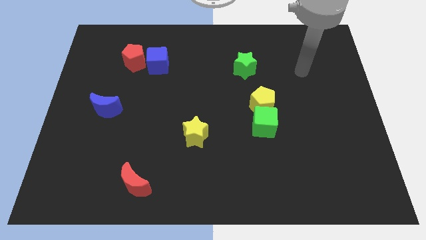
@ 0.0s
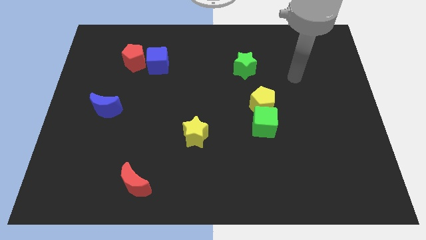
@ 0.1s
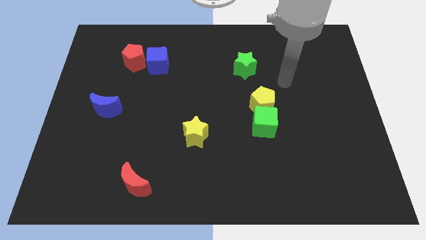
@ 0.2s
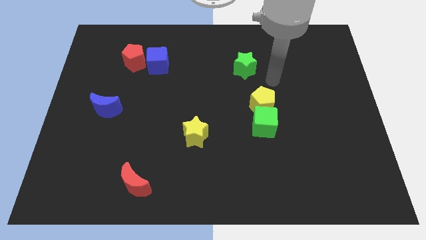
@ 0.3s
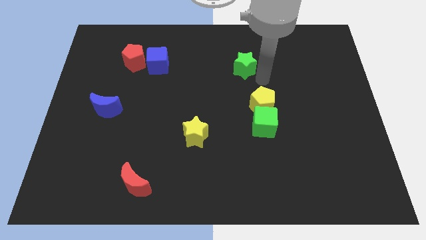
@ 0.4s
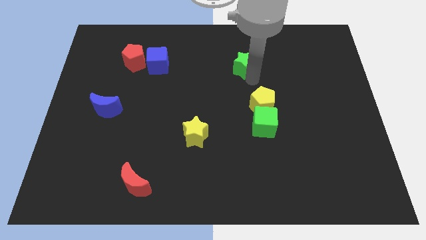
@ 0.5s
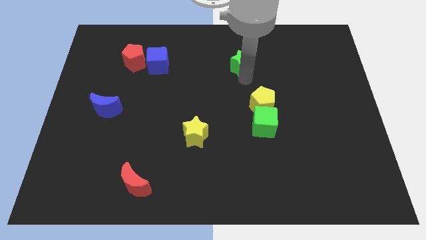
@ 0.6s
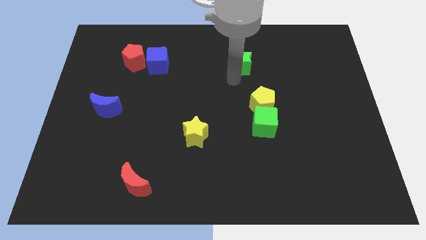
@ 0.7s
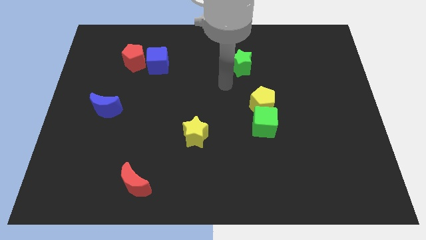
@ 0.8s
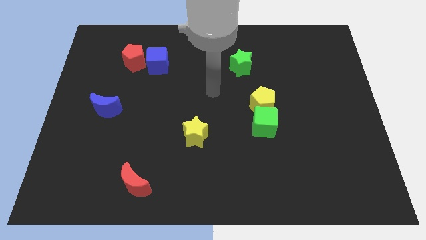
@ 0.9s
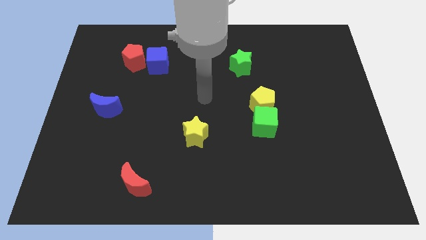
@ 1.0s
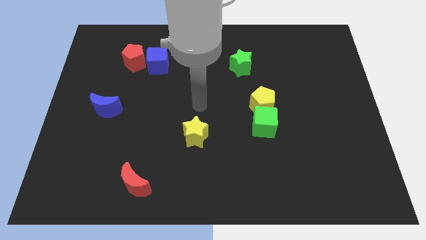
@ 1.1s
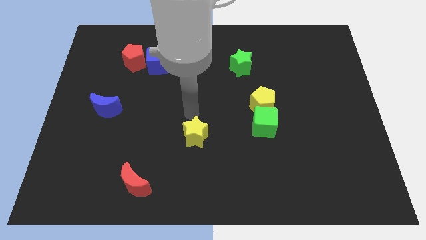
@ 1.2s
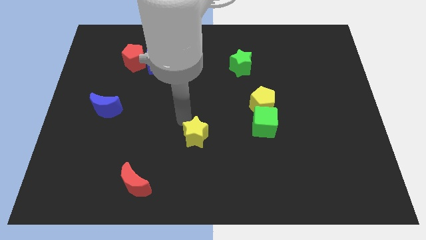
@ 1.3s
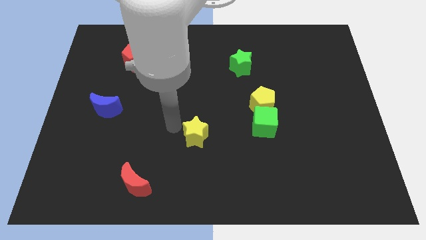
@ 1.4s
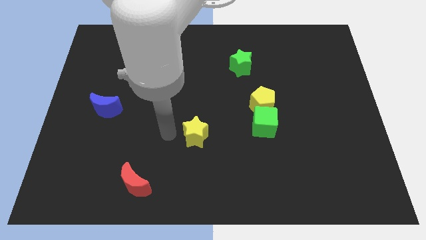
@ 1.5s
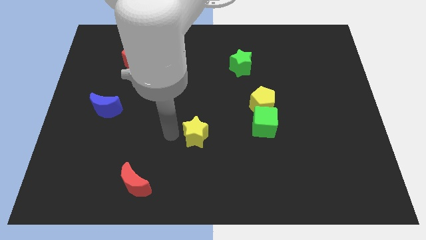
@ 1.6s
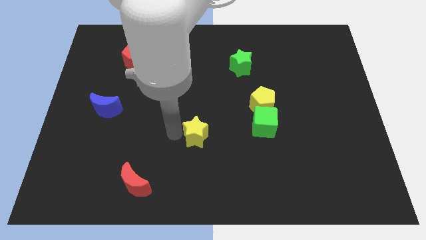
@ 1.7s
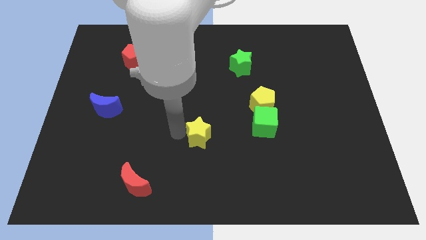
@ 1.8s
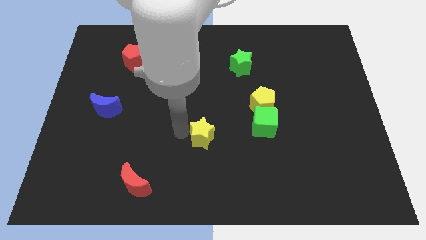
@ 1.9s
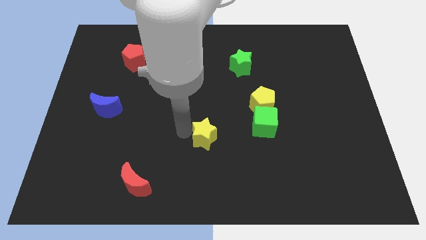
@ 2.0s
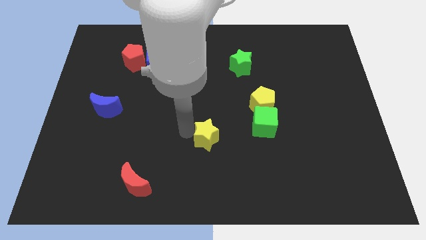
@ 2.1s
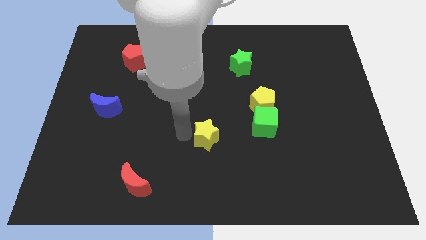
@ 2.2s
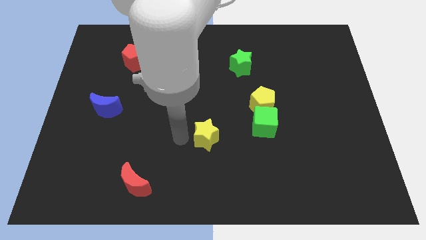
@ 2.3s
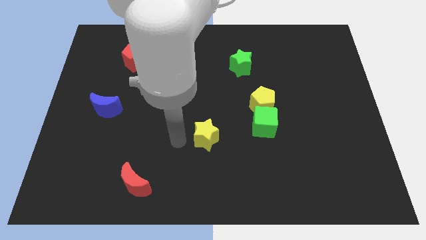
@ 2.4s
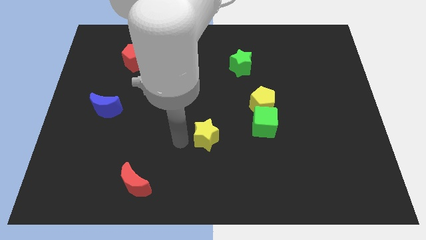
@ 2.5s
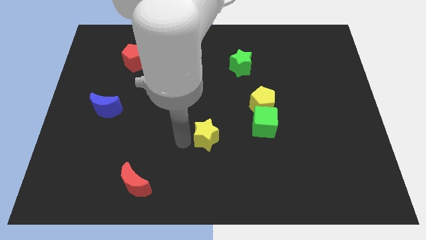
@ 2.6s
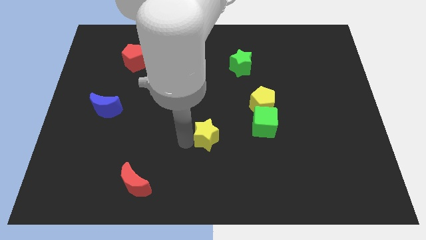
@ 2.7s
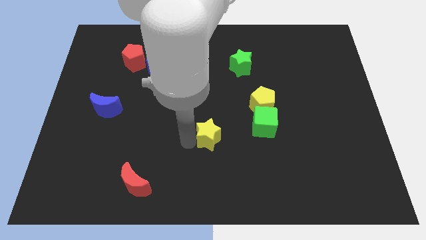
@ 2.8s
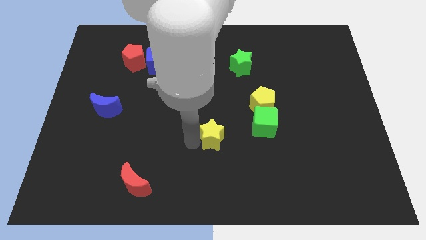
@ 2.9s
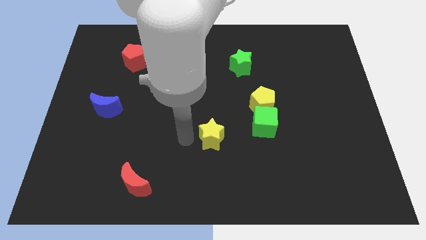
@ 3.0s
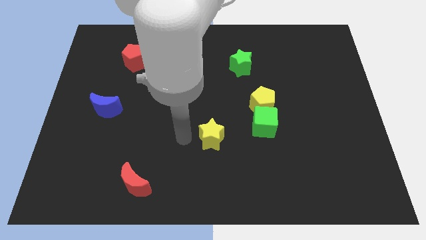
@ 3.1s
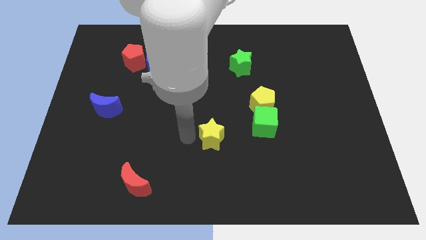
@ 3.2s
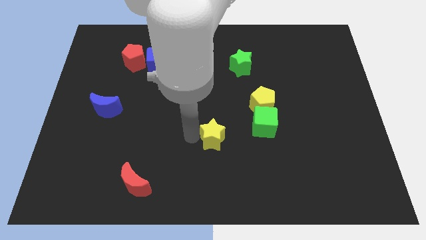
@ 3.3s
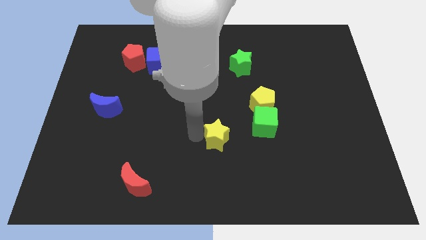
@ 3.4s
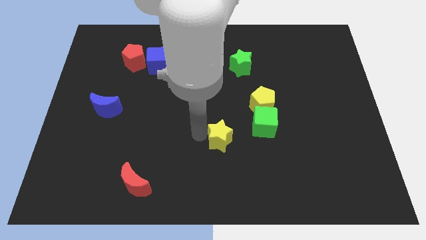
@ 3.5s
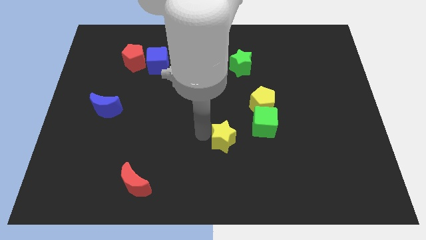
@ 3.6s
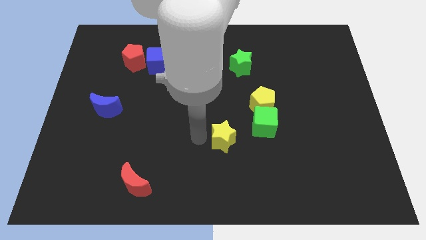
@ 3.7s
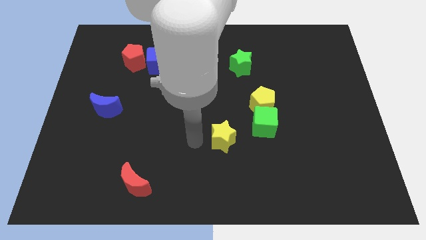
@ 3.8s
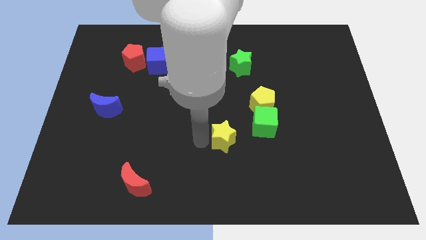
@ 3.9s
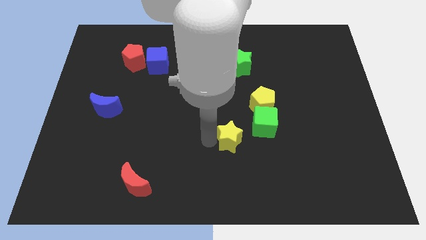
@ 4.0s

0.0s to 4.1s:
move the yellow star right slightly

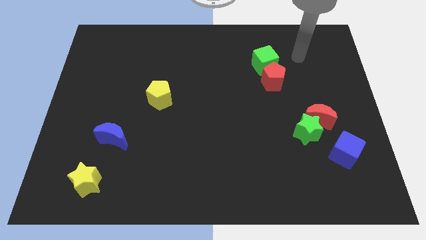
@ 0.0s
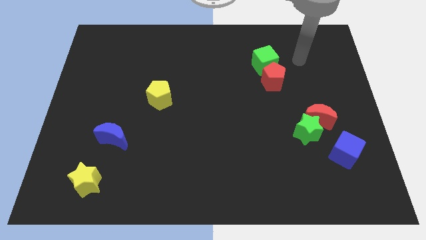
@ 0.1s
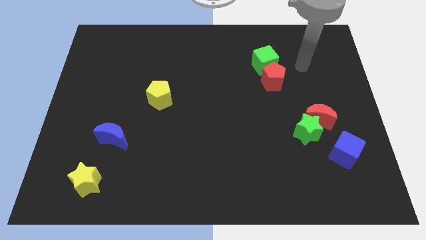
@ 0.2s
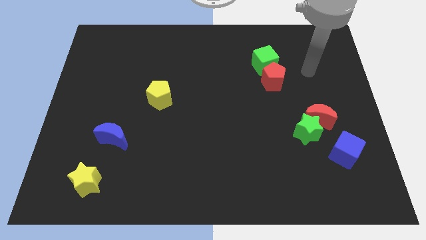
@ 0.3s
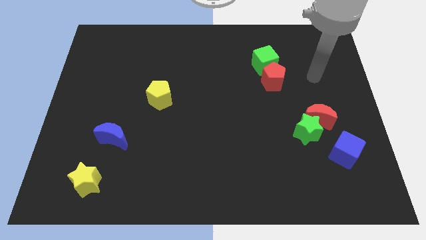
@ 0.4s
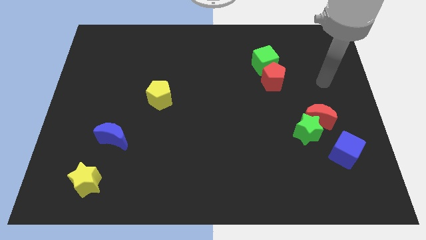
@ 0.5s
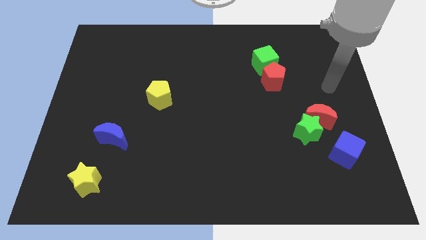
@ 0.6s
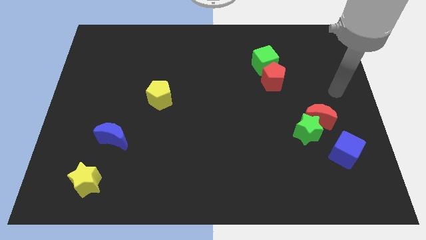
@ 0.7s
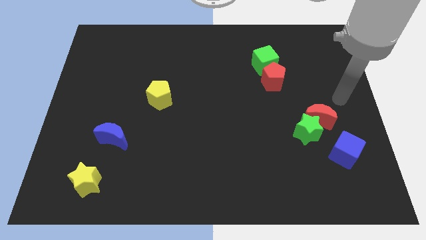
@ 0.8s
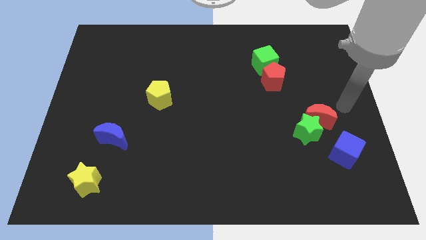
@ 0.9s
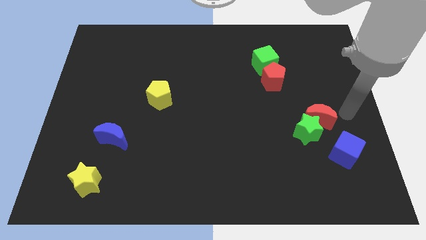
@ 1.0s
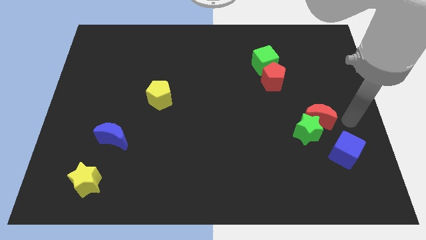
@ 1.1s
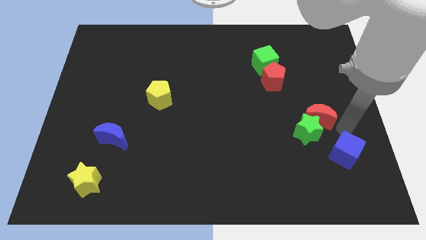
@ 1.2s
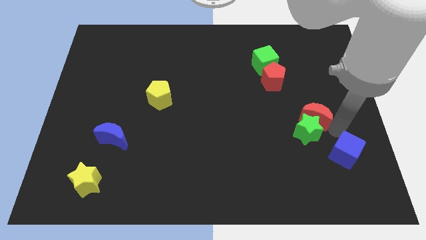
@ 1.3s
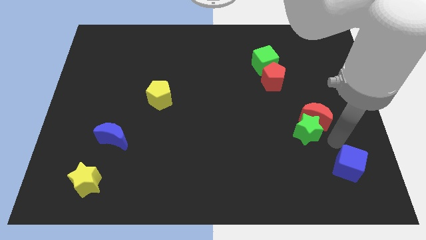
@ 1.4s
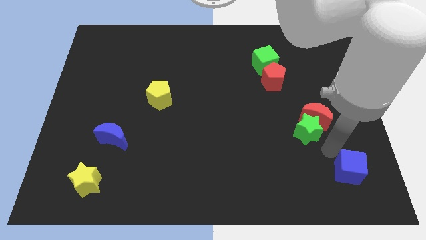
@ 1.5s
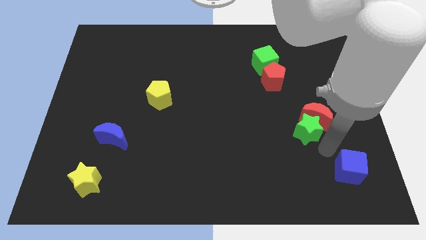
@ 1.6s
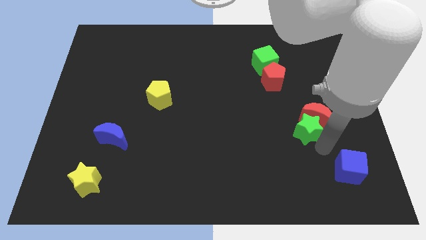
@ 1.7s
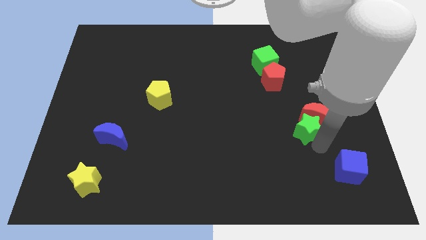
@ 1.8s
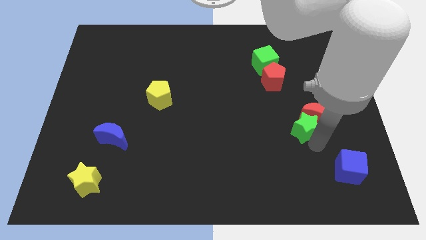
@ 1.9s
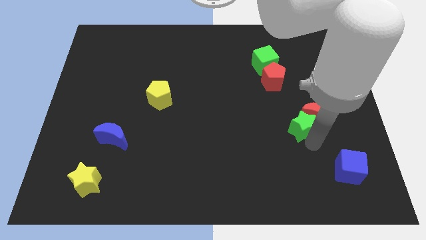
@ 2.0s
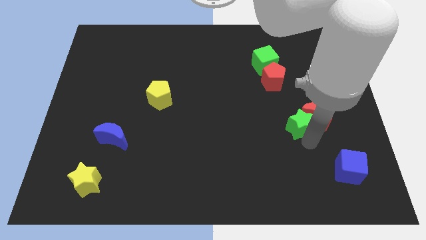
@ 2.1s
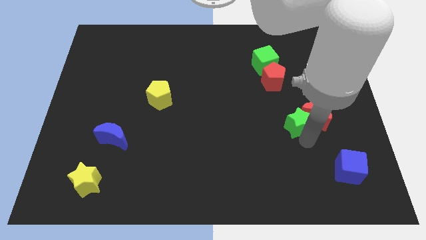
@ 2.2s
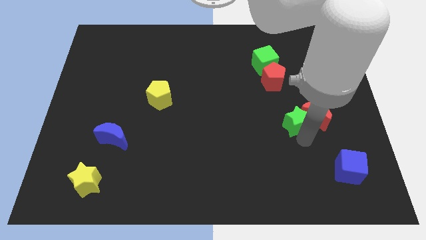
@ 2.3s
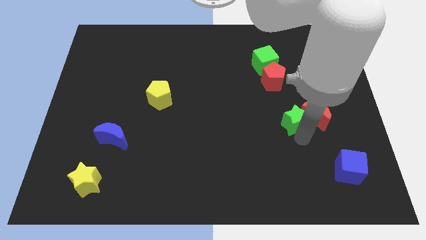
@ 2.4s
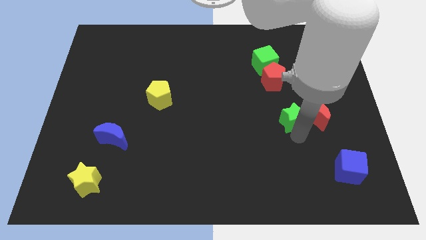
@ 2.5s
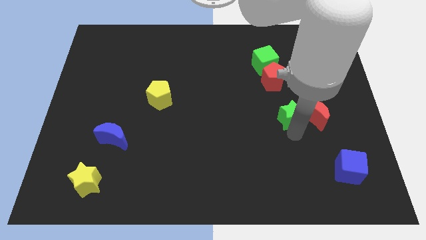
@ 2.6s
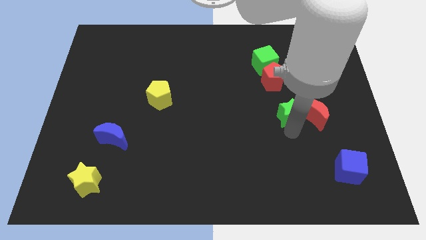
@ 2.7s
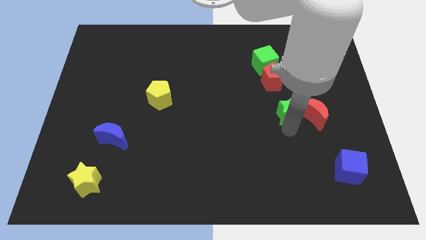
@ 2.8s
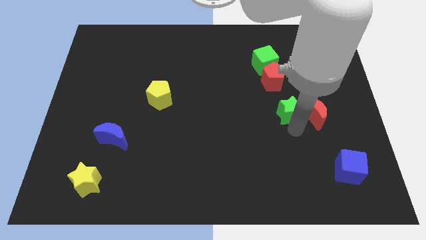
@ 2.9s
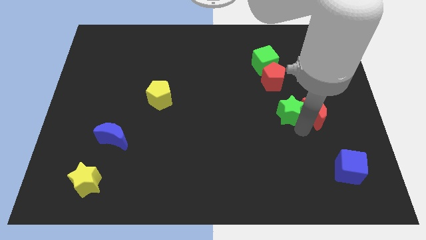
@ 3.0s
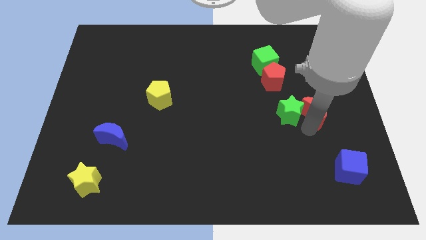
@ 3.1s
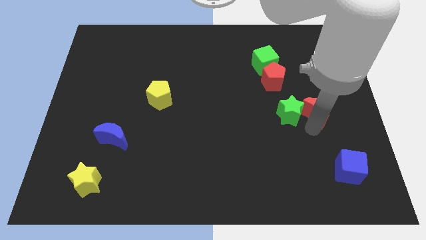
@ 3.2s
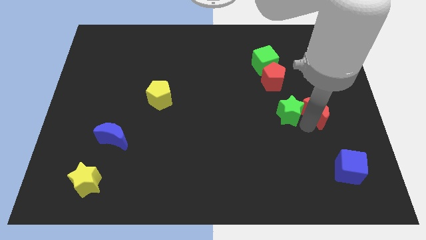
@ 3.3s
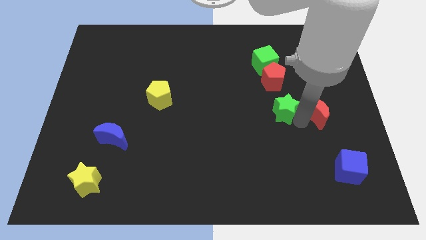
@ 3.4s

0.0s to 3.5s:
slightly slide the green star upwards and to the left

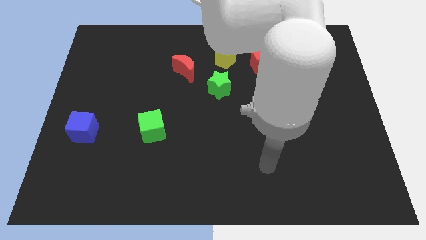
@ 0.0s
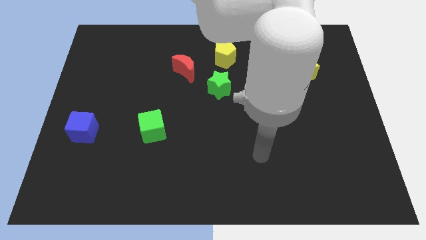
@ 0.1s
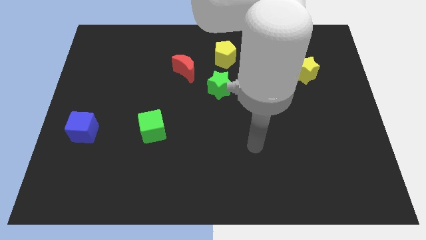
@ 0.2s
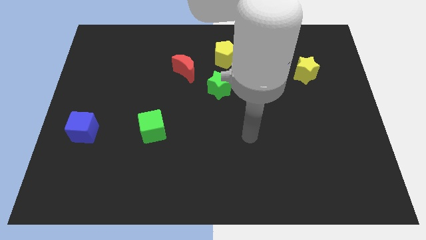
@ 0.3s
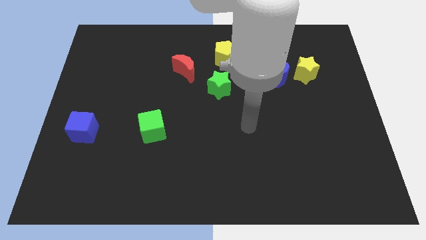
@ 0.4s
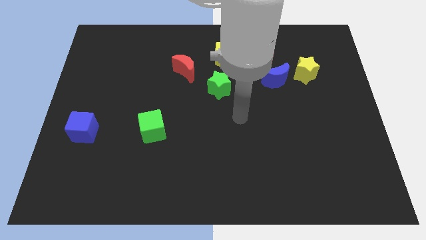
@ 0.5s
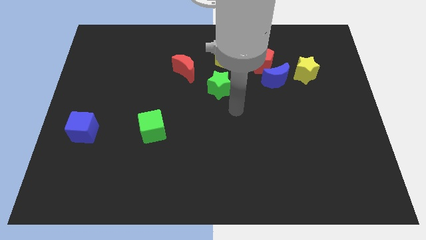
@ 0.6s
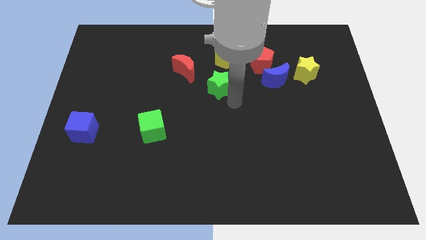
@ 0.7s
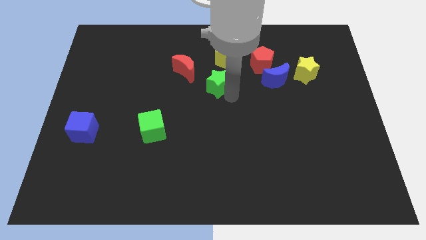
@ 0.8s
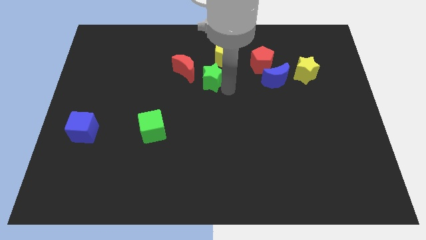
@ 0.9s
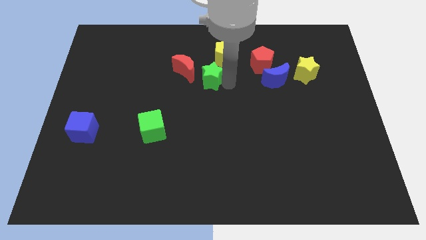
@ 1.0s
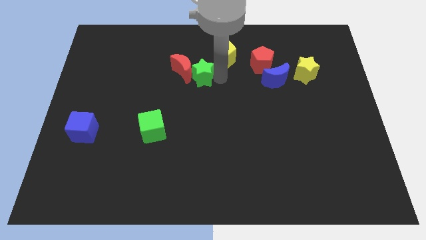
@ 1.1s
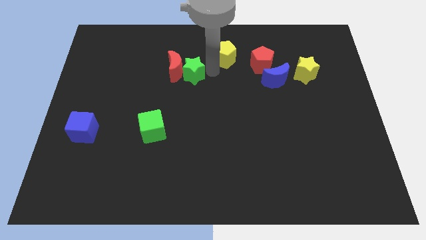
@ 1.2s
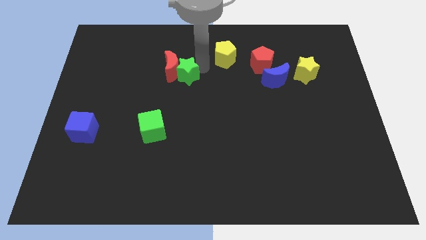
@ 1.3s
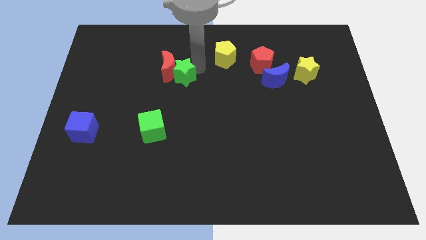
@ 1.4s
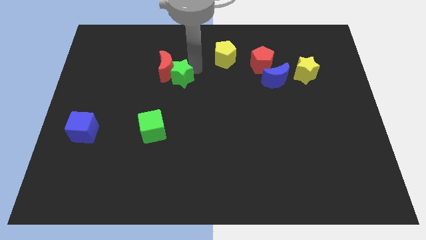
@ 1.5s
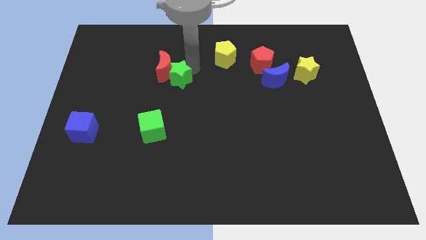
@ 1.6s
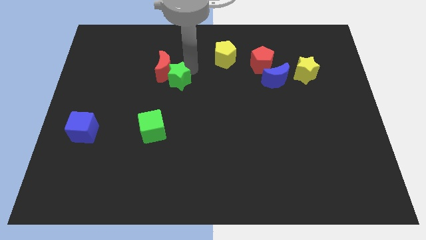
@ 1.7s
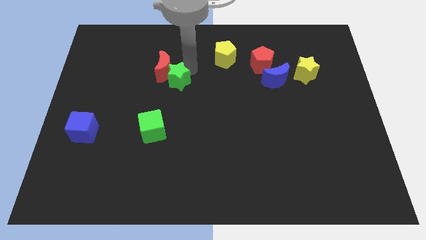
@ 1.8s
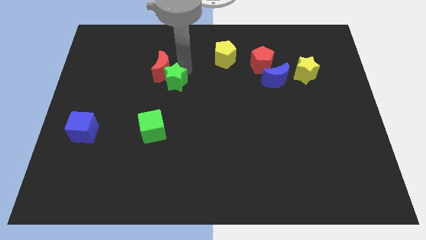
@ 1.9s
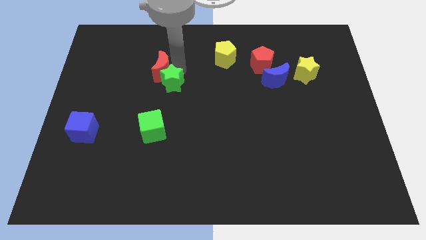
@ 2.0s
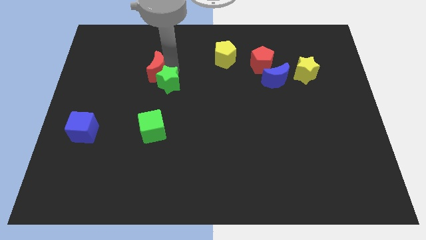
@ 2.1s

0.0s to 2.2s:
move the red moon to the left slightly
